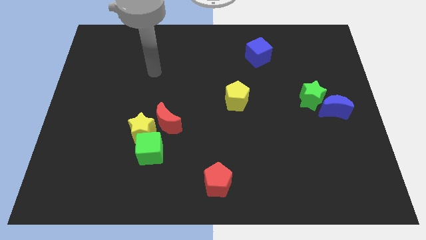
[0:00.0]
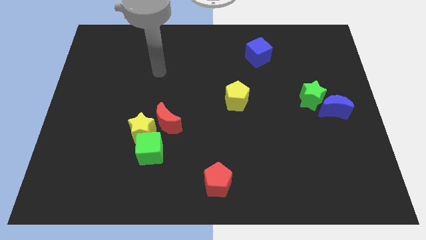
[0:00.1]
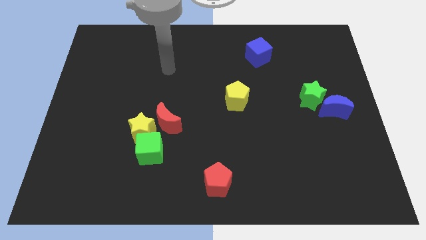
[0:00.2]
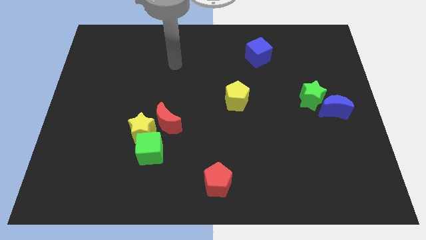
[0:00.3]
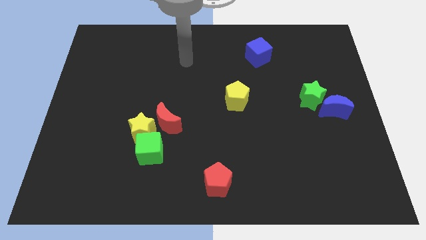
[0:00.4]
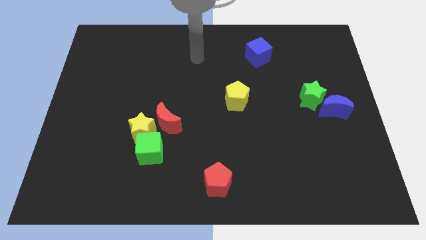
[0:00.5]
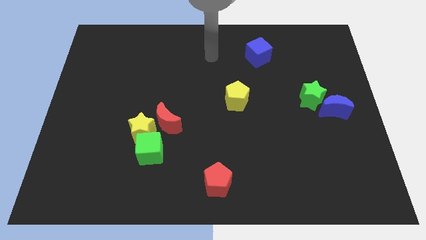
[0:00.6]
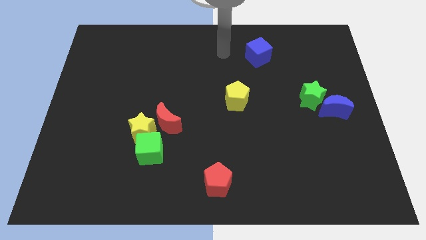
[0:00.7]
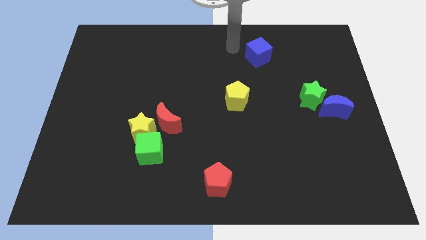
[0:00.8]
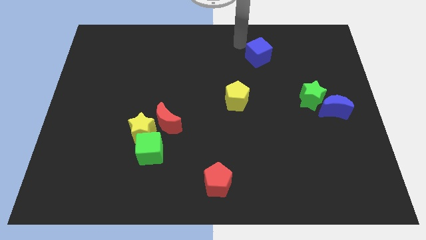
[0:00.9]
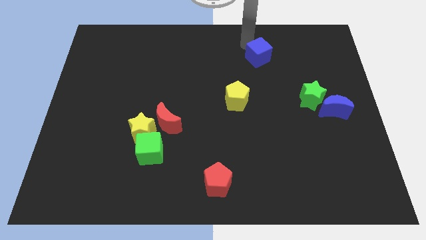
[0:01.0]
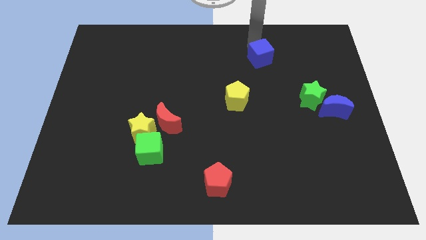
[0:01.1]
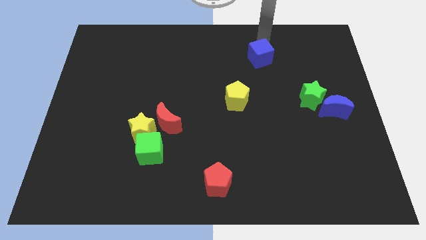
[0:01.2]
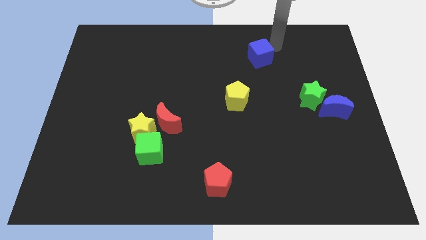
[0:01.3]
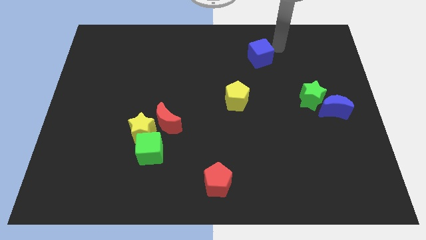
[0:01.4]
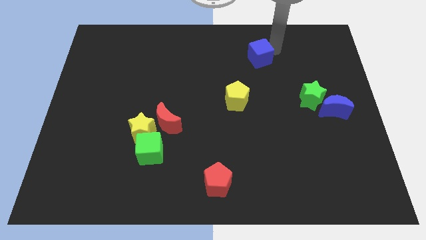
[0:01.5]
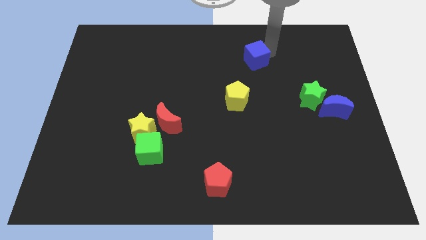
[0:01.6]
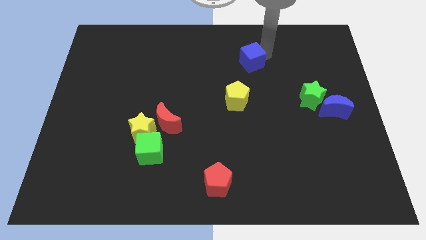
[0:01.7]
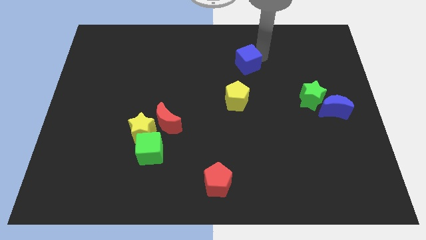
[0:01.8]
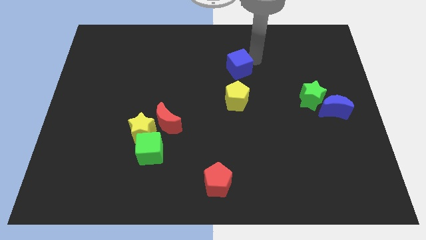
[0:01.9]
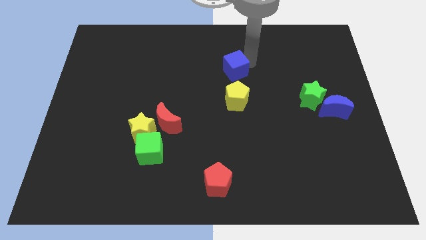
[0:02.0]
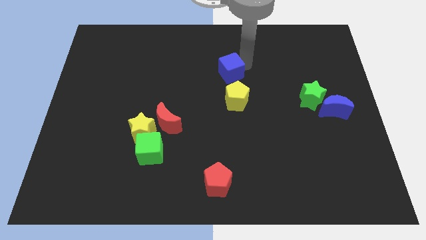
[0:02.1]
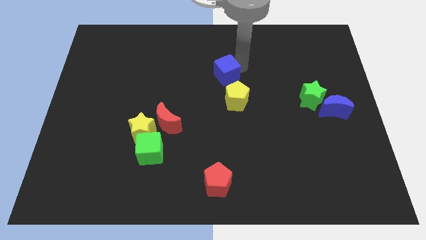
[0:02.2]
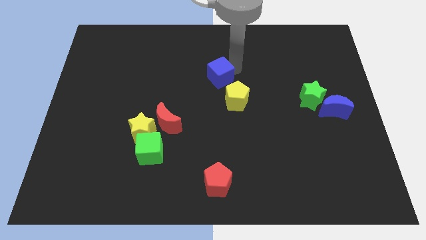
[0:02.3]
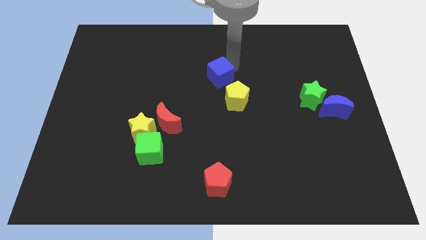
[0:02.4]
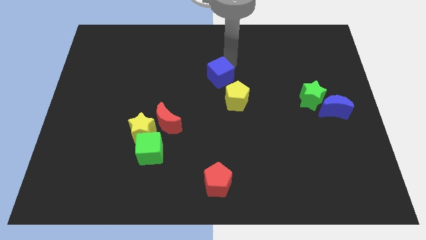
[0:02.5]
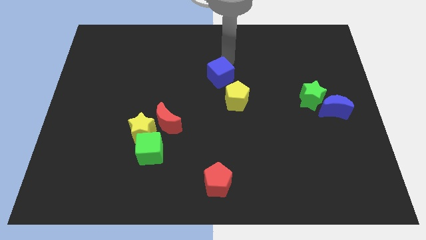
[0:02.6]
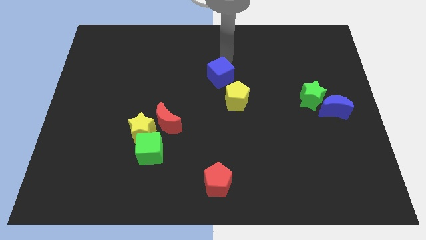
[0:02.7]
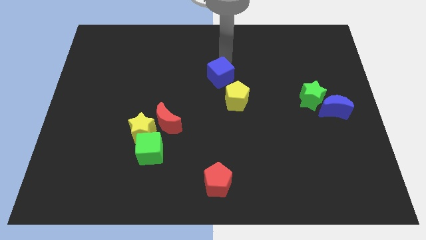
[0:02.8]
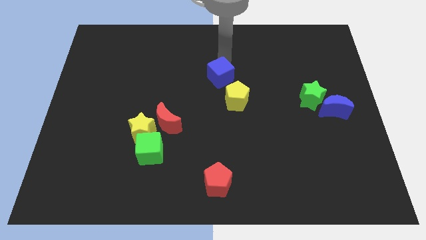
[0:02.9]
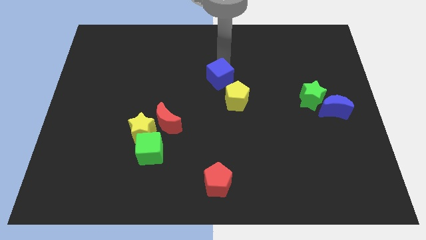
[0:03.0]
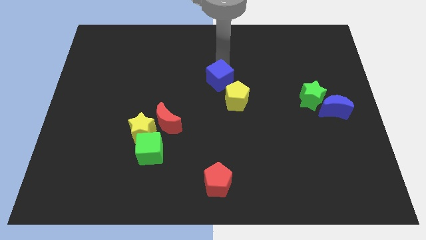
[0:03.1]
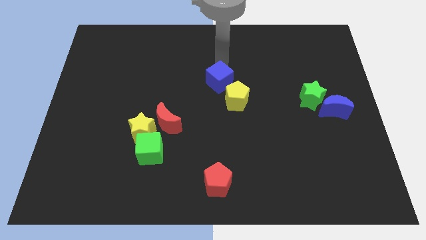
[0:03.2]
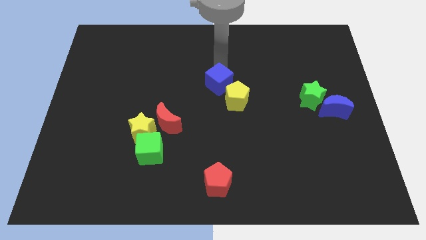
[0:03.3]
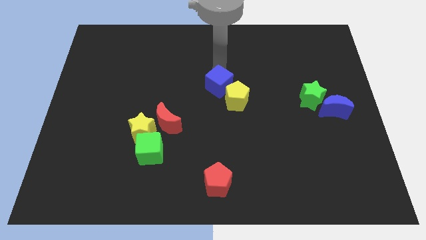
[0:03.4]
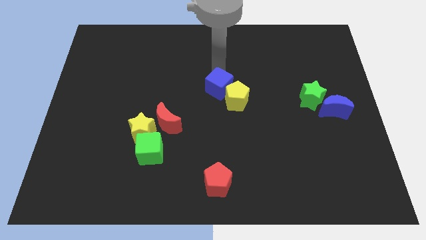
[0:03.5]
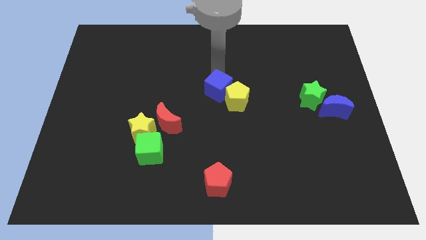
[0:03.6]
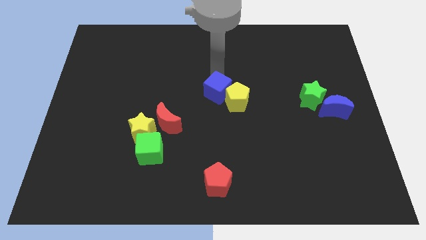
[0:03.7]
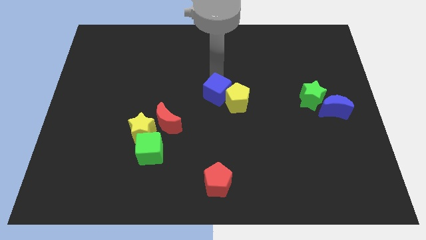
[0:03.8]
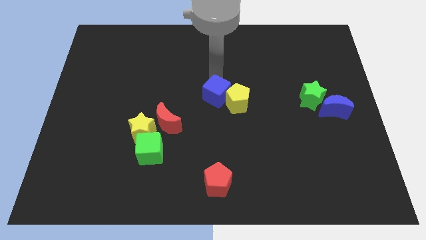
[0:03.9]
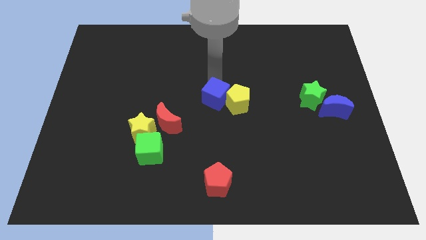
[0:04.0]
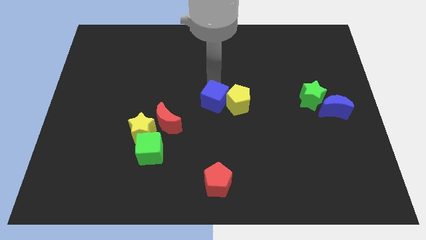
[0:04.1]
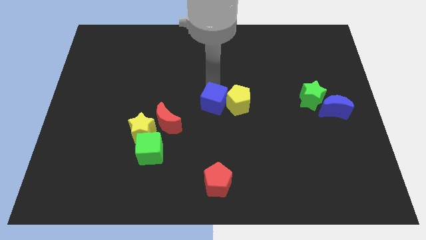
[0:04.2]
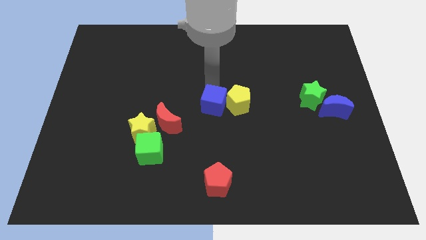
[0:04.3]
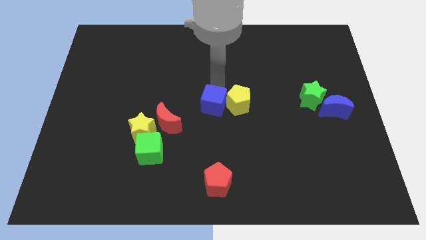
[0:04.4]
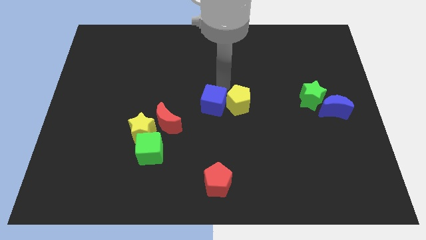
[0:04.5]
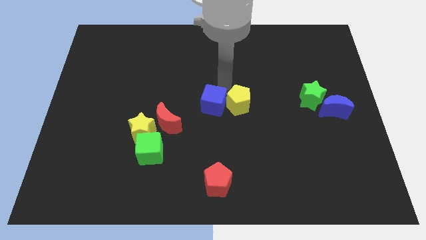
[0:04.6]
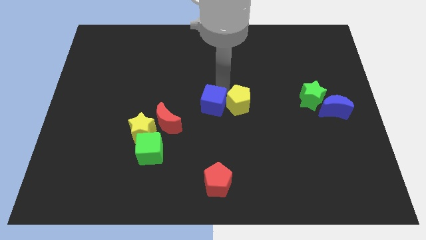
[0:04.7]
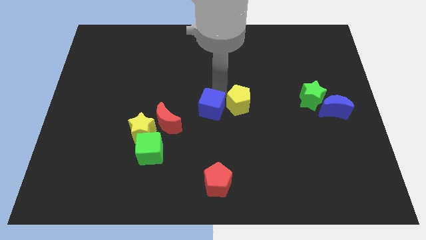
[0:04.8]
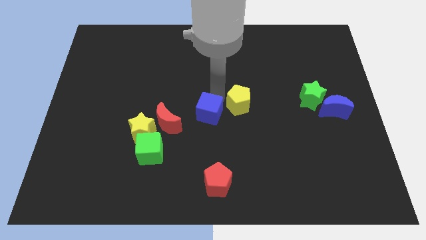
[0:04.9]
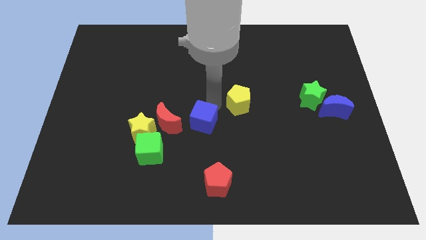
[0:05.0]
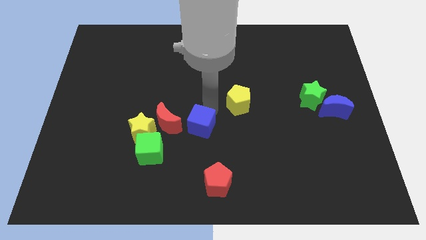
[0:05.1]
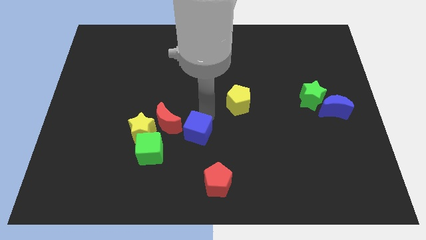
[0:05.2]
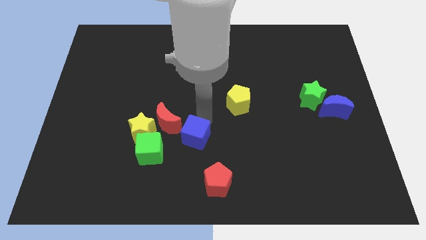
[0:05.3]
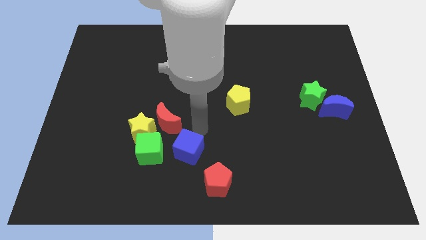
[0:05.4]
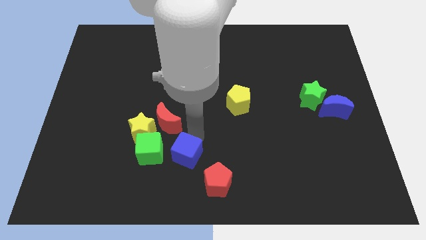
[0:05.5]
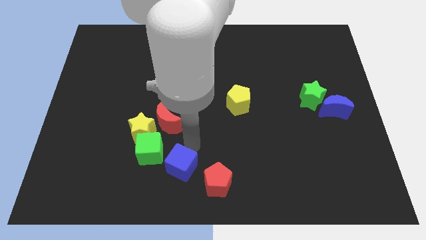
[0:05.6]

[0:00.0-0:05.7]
slide the blue cube to the left side of the red pentagon

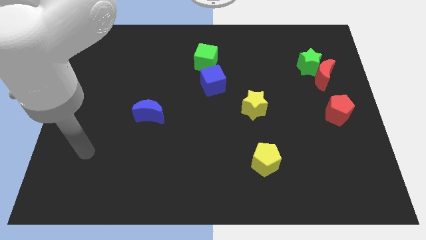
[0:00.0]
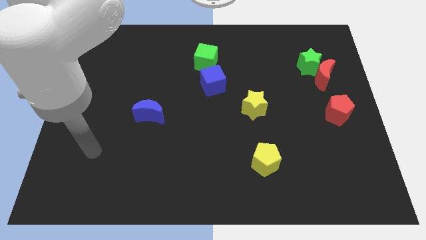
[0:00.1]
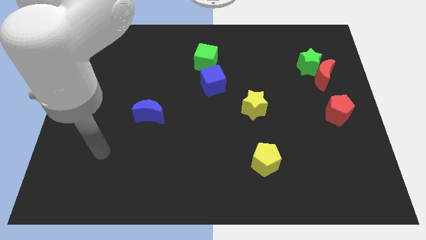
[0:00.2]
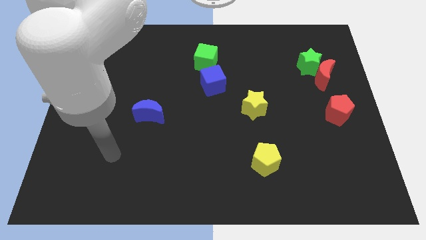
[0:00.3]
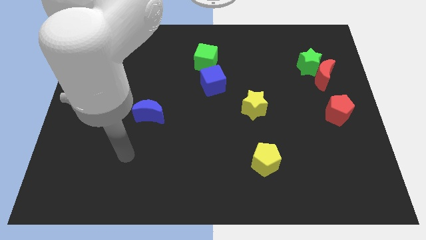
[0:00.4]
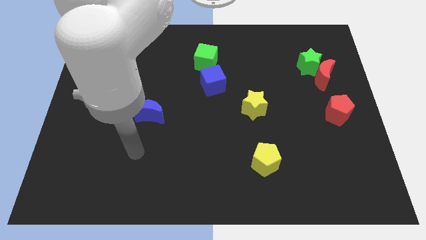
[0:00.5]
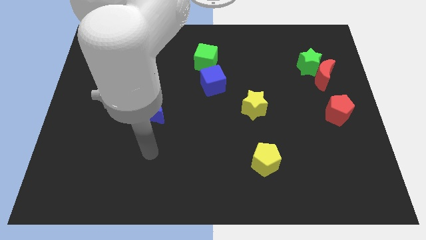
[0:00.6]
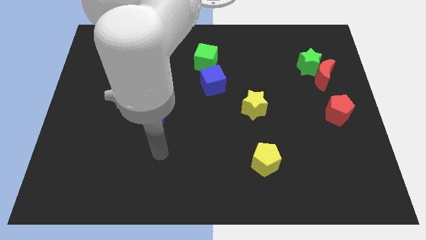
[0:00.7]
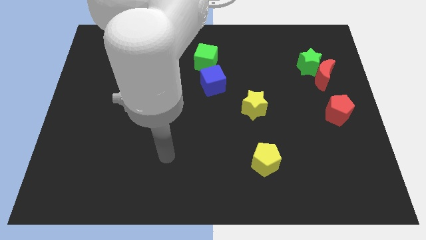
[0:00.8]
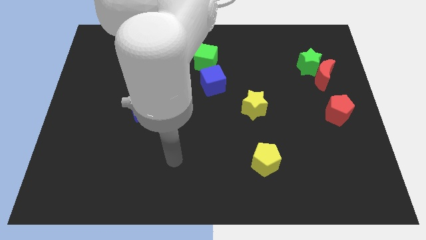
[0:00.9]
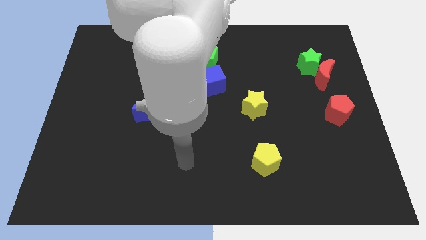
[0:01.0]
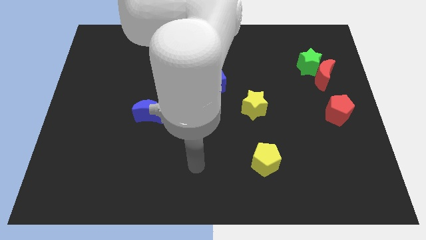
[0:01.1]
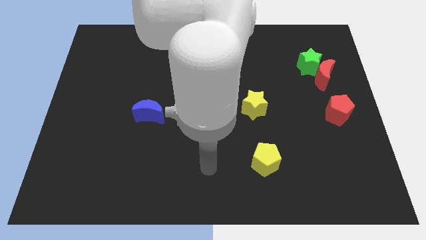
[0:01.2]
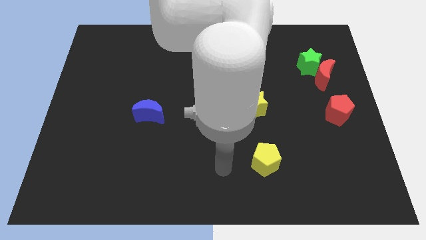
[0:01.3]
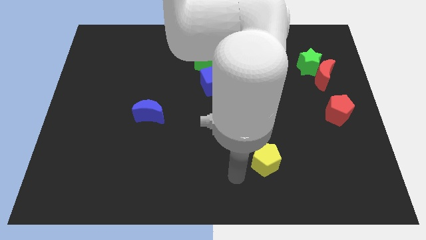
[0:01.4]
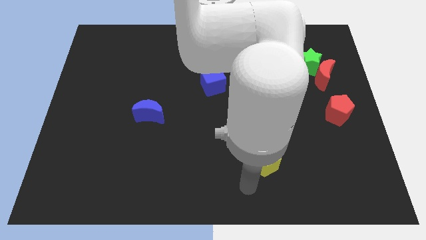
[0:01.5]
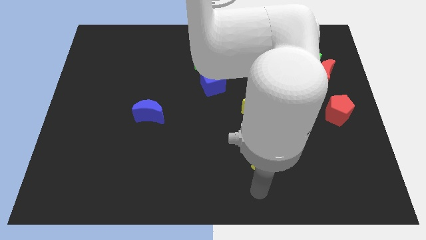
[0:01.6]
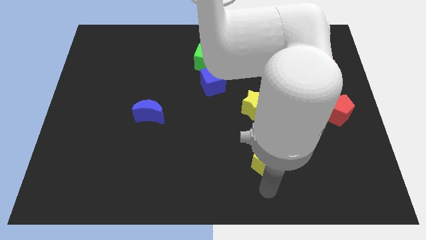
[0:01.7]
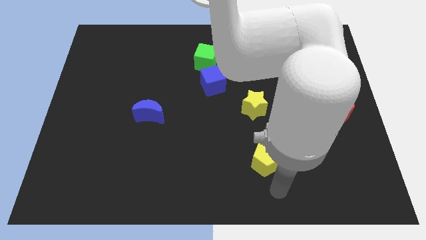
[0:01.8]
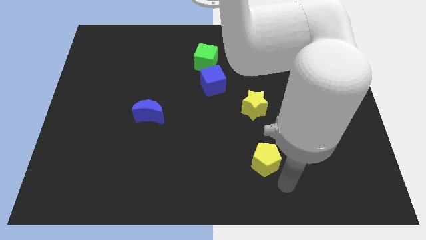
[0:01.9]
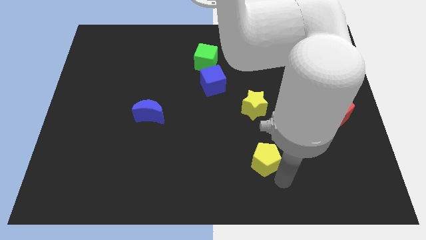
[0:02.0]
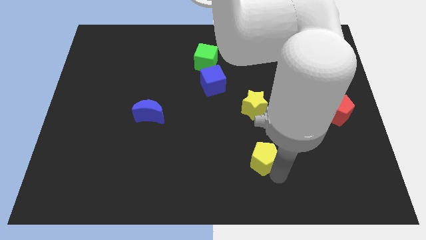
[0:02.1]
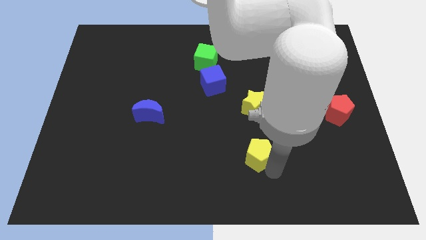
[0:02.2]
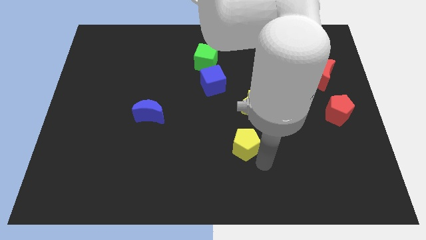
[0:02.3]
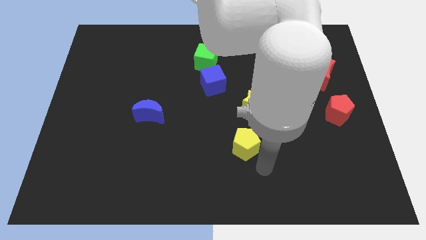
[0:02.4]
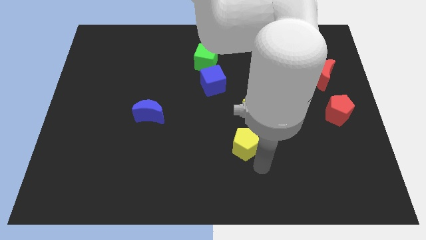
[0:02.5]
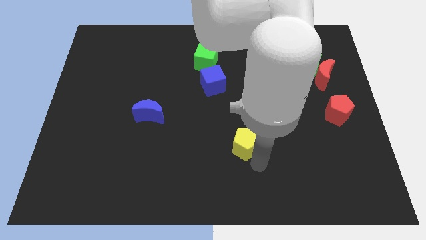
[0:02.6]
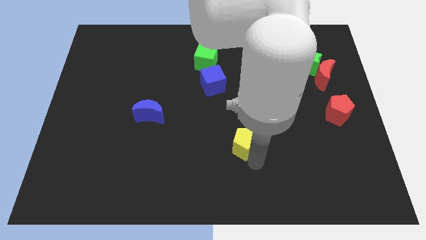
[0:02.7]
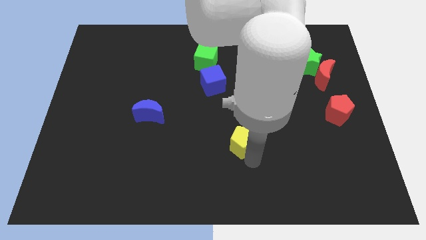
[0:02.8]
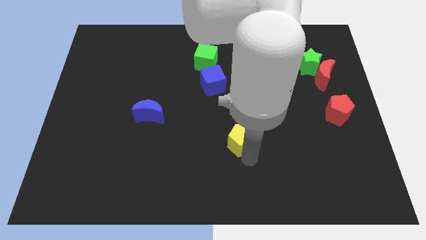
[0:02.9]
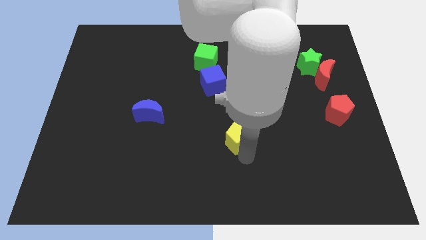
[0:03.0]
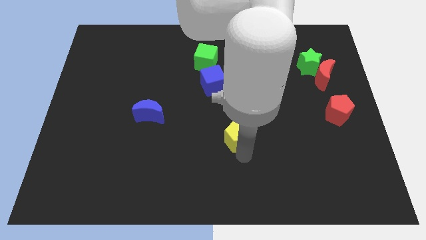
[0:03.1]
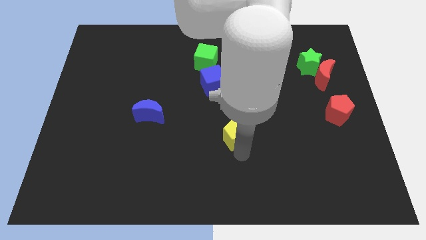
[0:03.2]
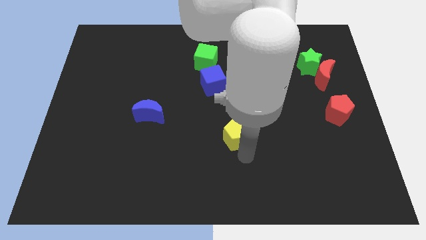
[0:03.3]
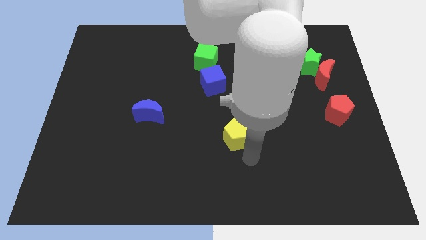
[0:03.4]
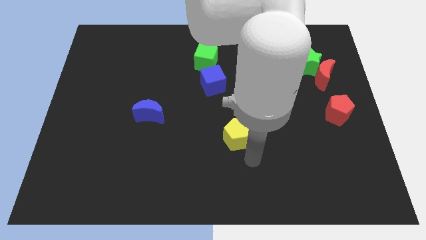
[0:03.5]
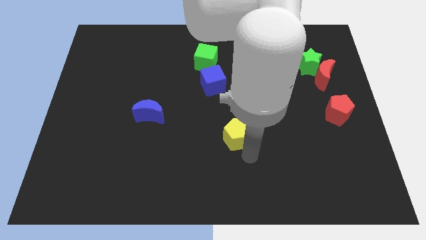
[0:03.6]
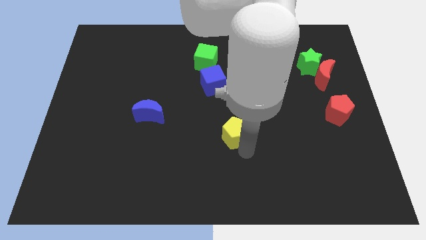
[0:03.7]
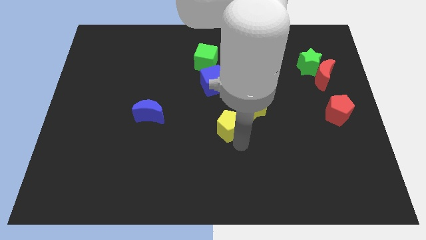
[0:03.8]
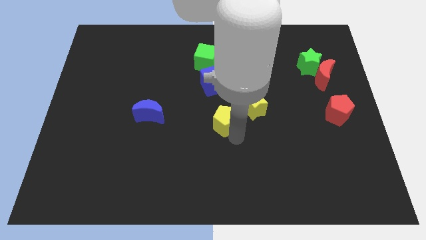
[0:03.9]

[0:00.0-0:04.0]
slide the yellow pentagon left of the yellow star
